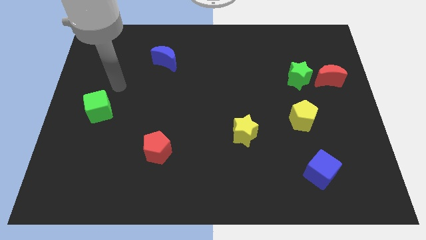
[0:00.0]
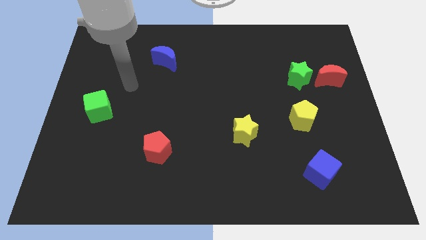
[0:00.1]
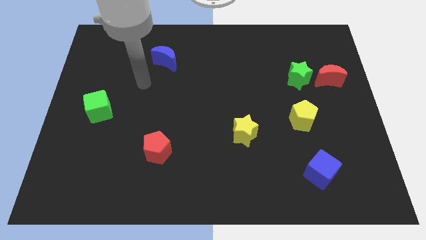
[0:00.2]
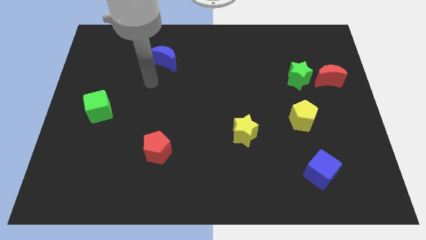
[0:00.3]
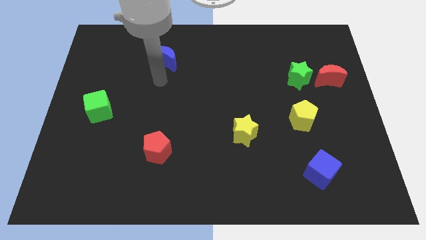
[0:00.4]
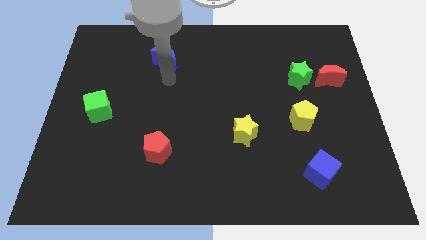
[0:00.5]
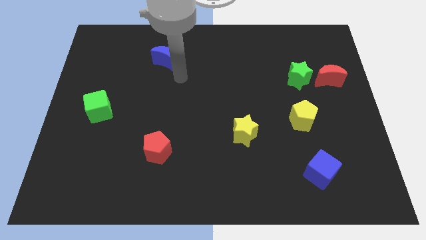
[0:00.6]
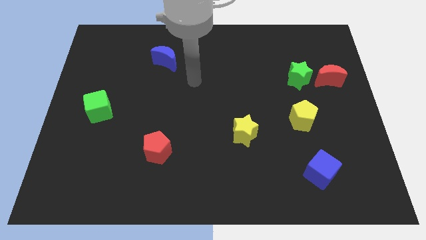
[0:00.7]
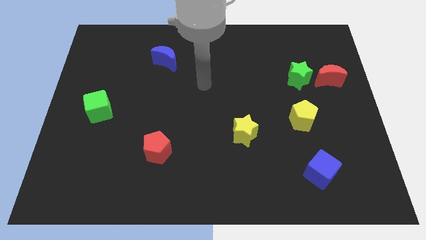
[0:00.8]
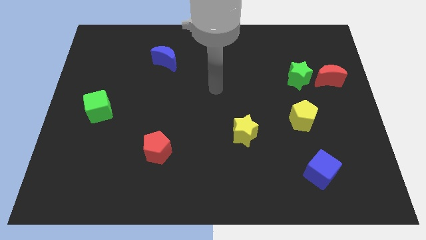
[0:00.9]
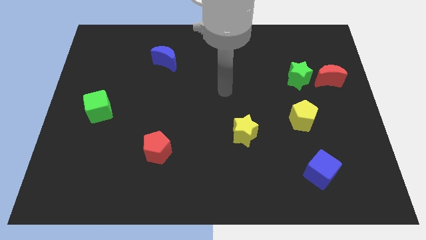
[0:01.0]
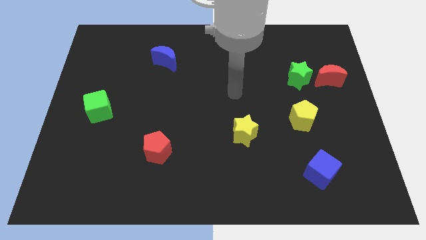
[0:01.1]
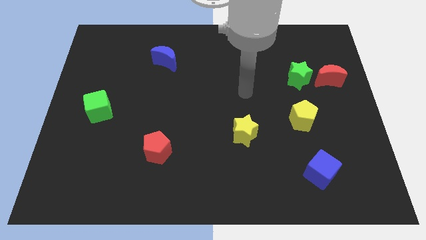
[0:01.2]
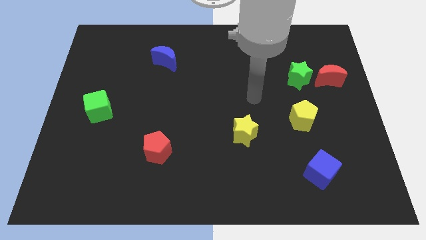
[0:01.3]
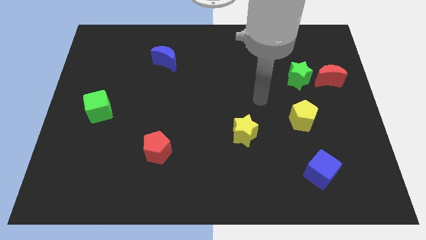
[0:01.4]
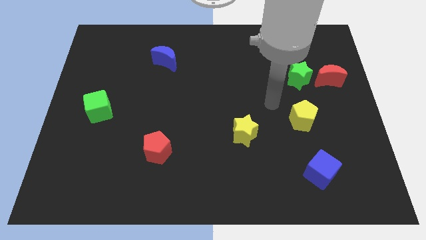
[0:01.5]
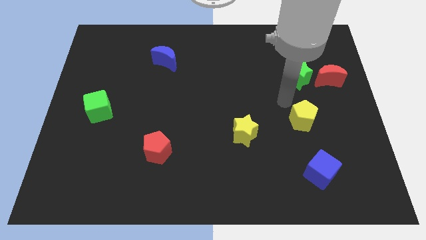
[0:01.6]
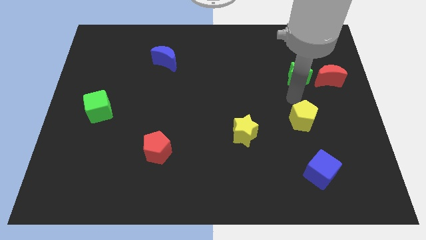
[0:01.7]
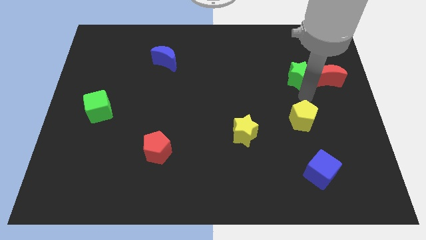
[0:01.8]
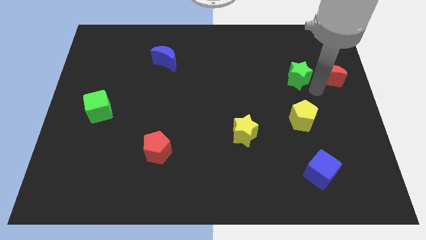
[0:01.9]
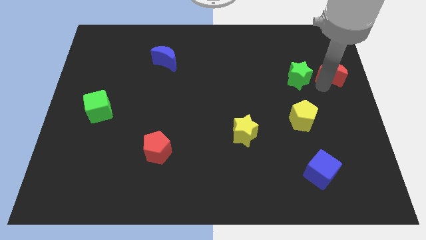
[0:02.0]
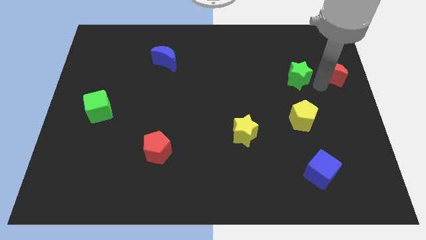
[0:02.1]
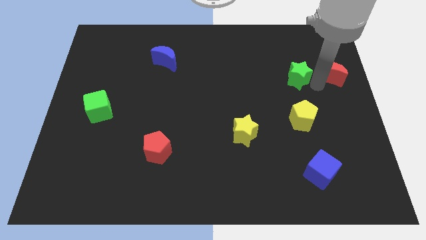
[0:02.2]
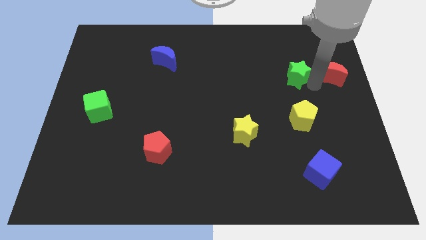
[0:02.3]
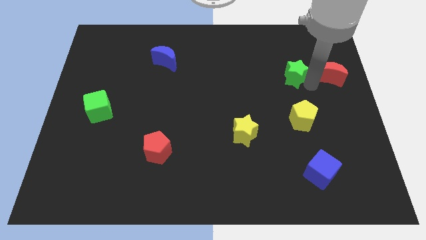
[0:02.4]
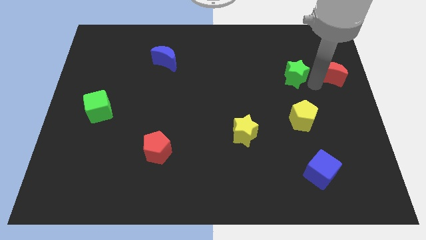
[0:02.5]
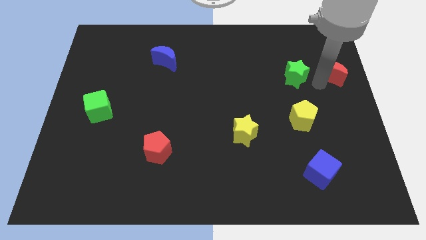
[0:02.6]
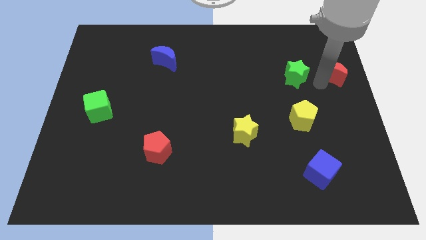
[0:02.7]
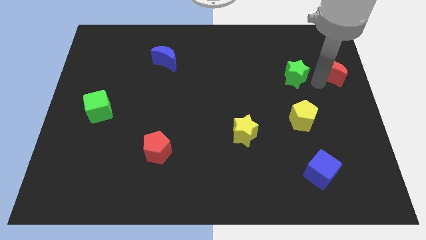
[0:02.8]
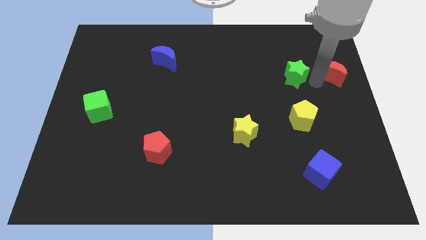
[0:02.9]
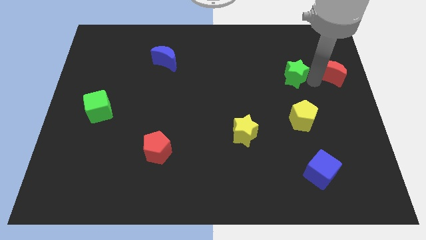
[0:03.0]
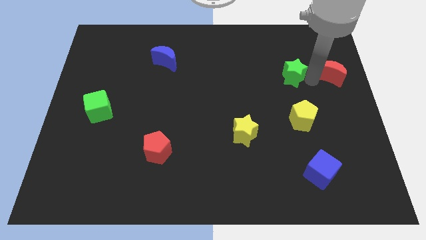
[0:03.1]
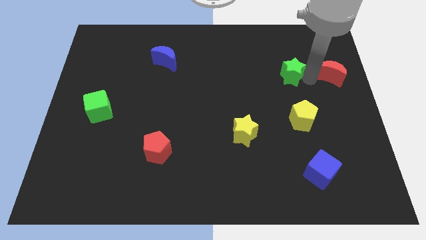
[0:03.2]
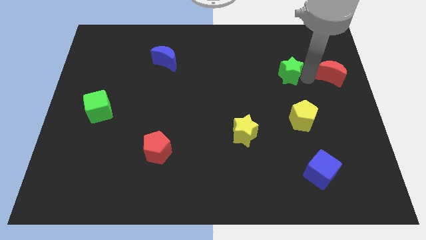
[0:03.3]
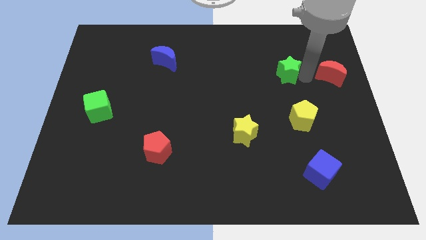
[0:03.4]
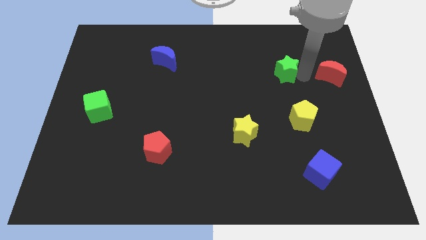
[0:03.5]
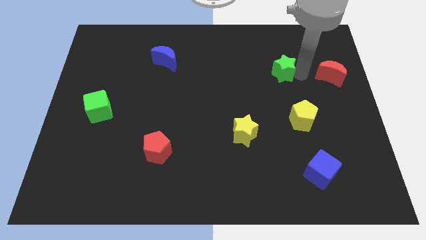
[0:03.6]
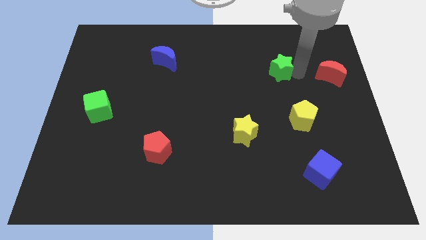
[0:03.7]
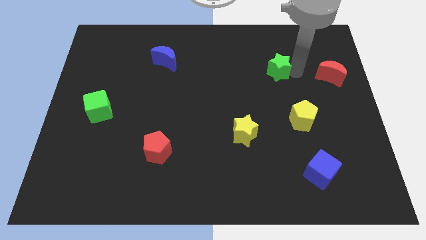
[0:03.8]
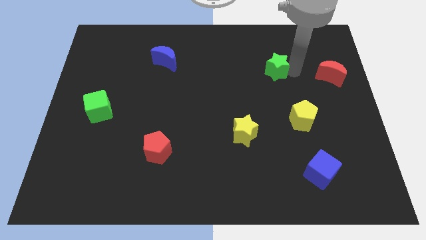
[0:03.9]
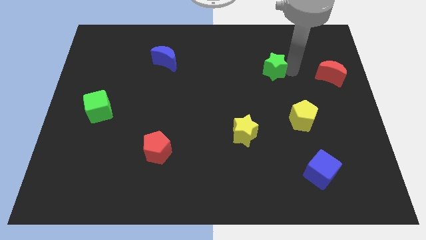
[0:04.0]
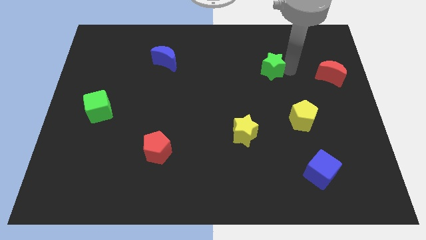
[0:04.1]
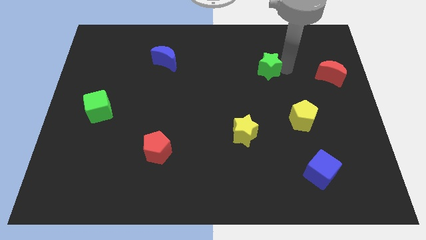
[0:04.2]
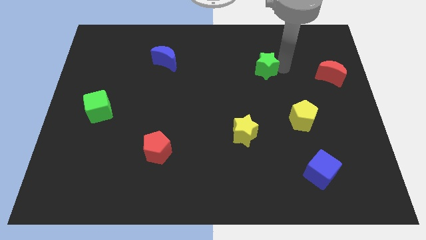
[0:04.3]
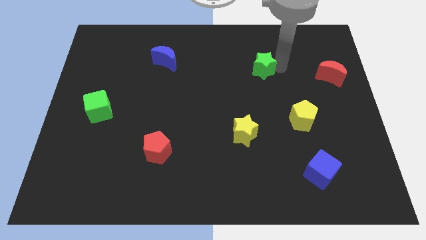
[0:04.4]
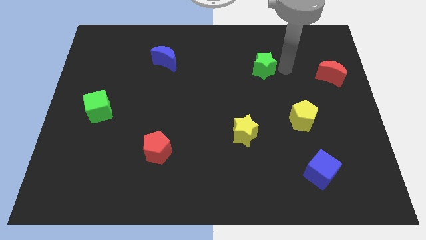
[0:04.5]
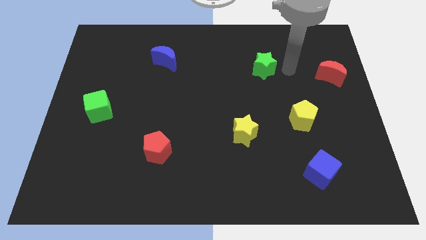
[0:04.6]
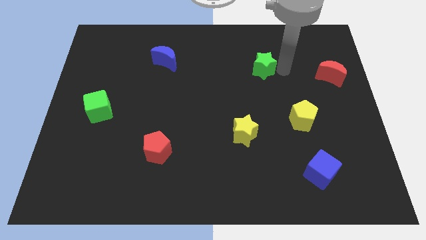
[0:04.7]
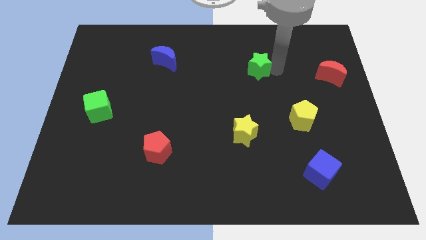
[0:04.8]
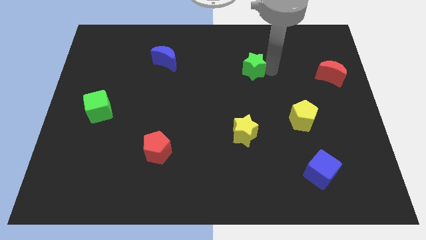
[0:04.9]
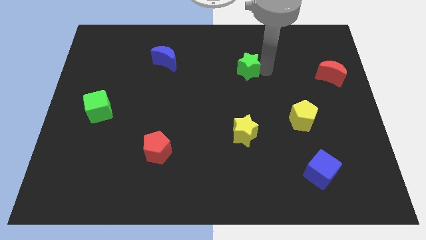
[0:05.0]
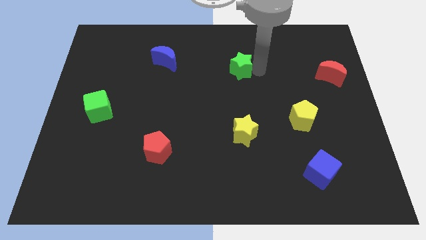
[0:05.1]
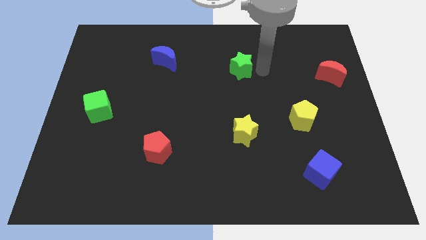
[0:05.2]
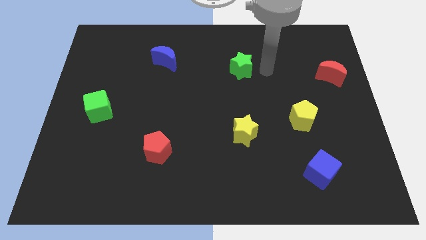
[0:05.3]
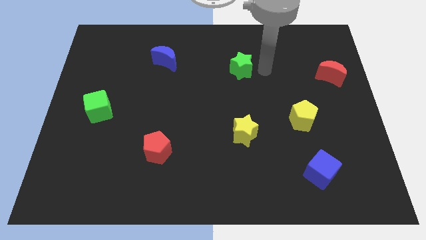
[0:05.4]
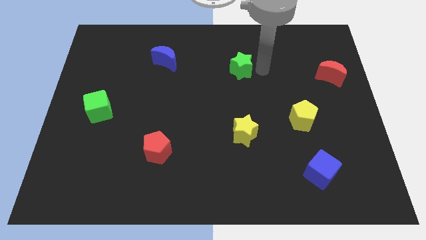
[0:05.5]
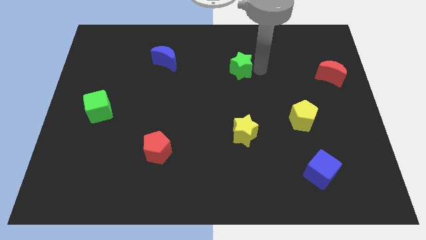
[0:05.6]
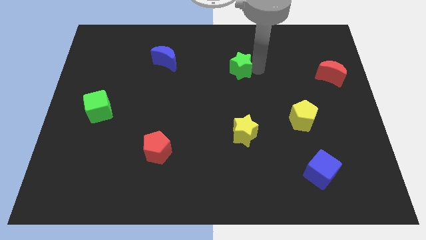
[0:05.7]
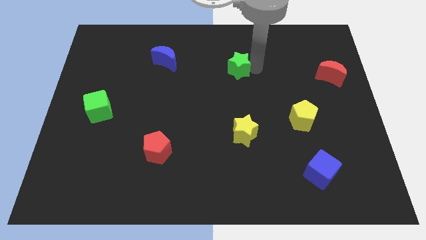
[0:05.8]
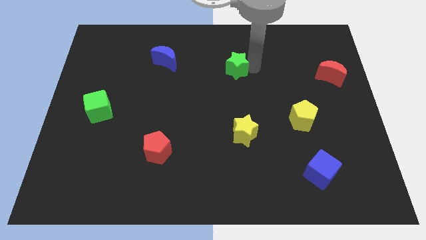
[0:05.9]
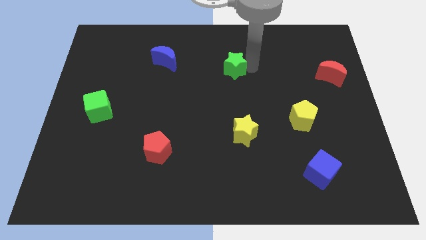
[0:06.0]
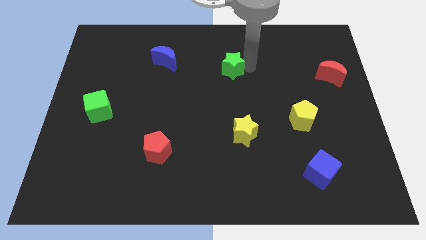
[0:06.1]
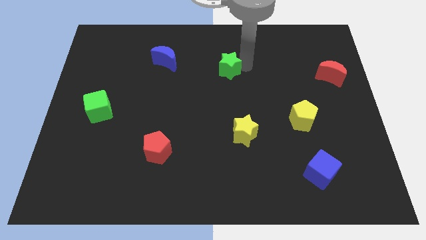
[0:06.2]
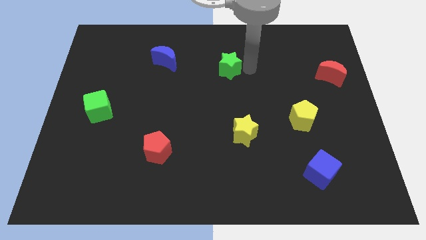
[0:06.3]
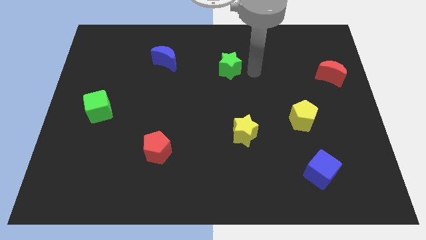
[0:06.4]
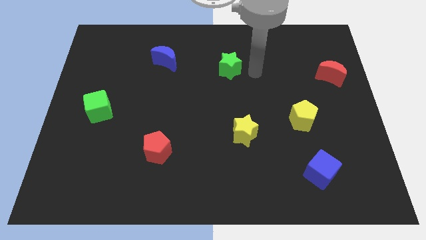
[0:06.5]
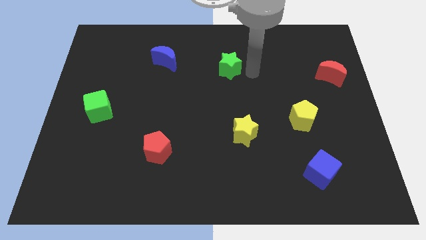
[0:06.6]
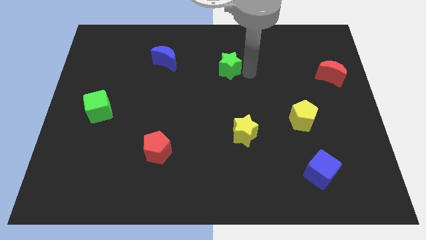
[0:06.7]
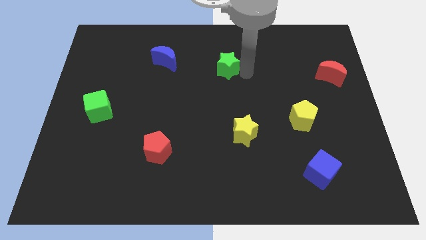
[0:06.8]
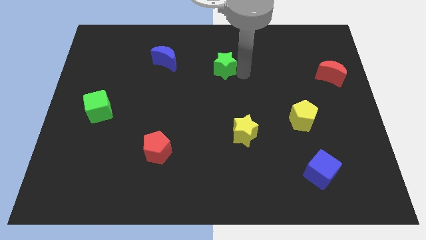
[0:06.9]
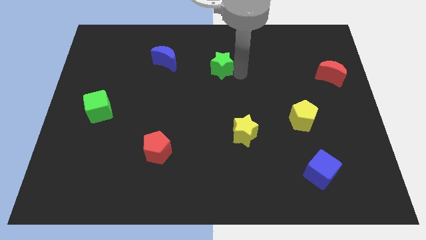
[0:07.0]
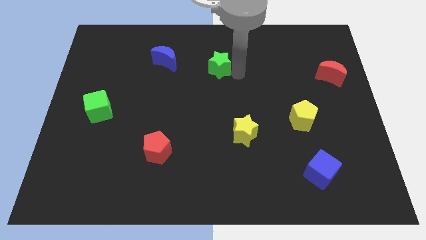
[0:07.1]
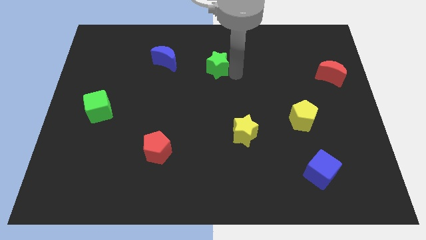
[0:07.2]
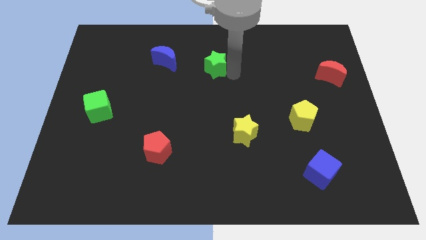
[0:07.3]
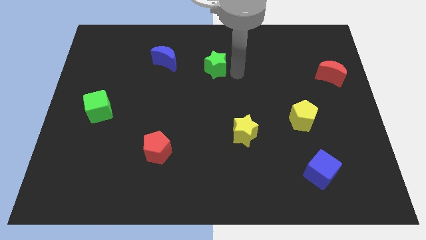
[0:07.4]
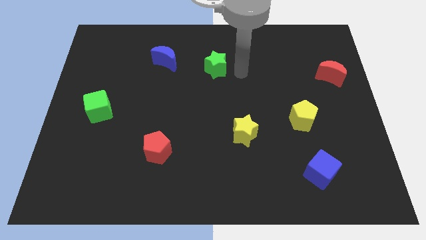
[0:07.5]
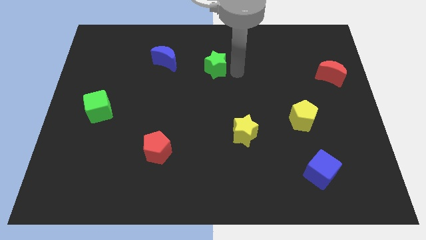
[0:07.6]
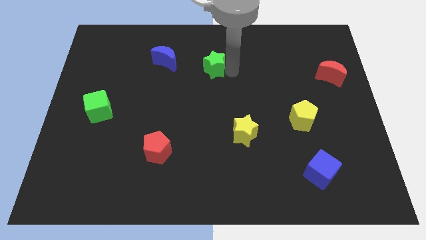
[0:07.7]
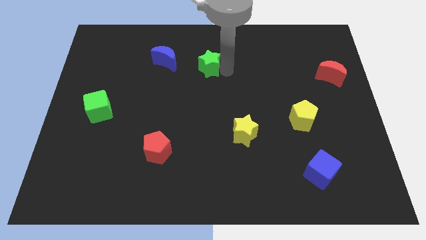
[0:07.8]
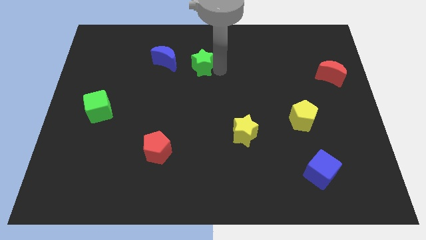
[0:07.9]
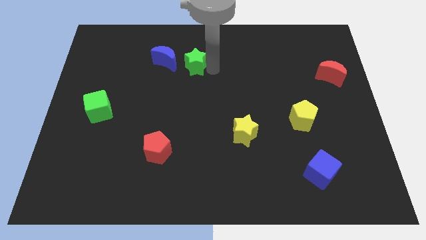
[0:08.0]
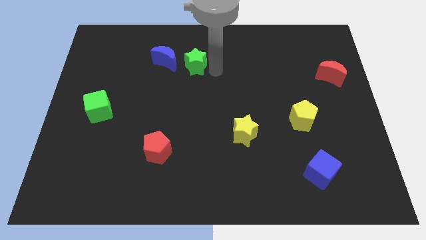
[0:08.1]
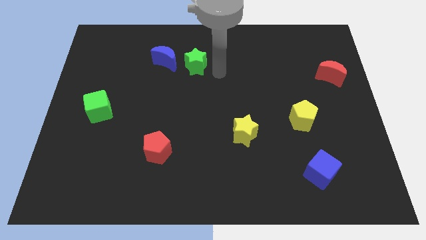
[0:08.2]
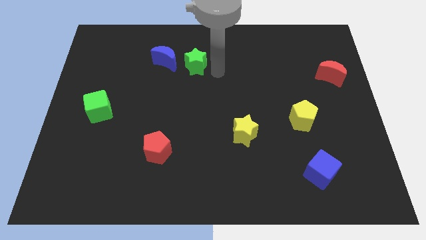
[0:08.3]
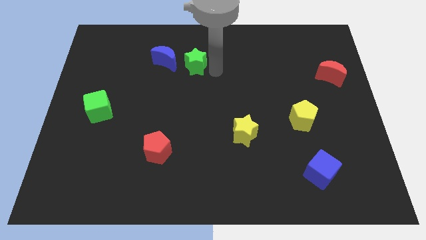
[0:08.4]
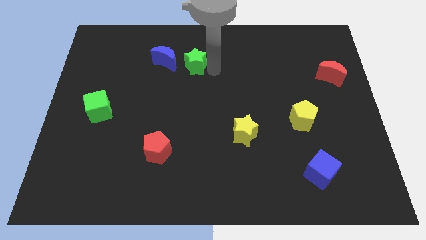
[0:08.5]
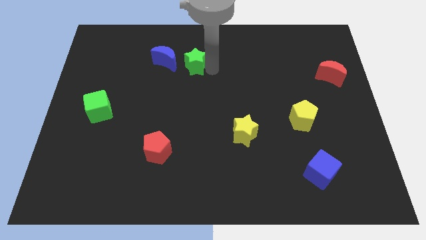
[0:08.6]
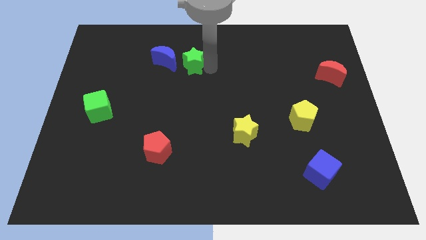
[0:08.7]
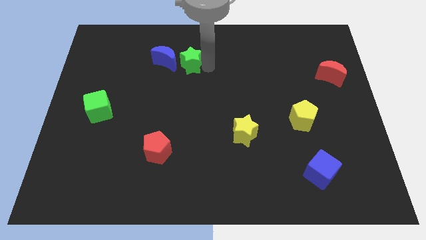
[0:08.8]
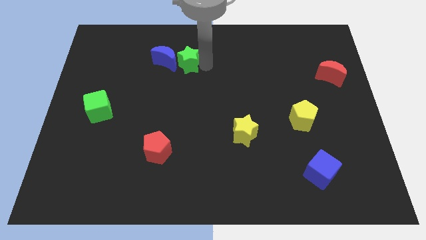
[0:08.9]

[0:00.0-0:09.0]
push the green star next to the blue moon
